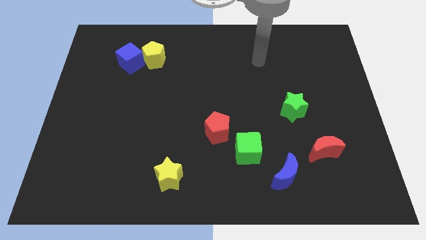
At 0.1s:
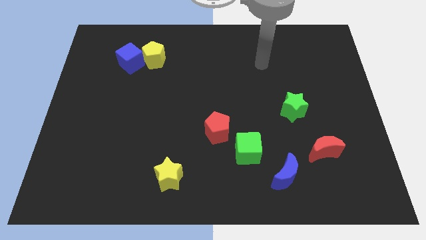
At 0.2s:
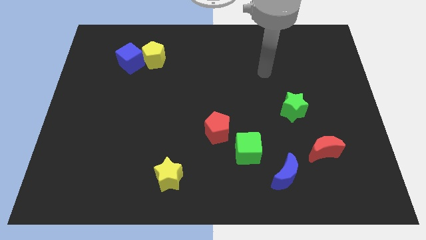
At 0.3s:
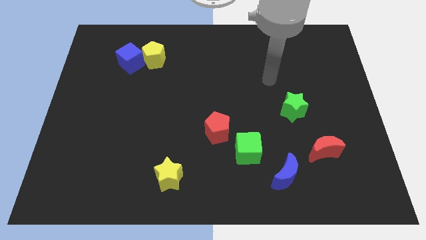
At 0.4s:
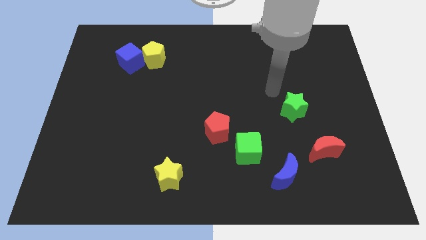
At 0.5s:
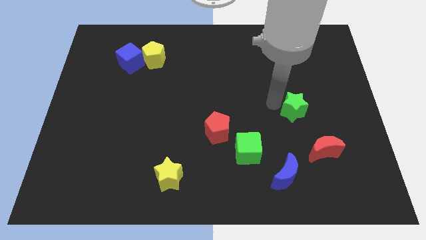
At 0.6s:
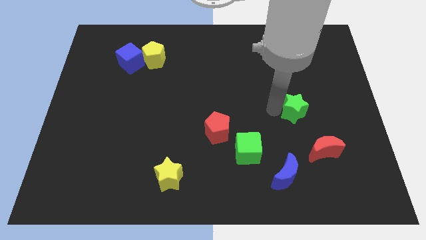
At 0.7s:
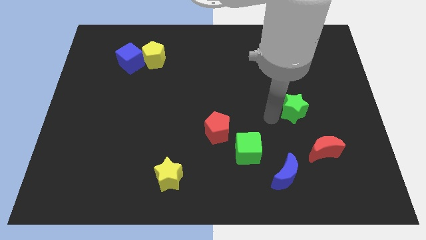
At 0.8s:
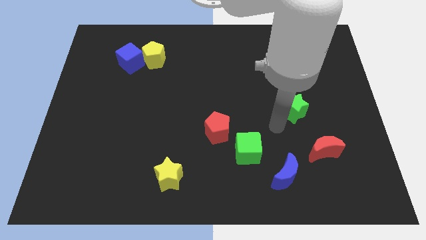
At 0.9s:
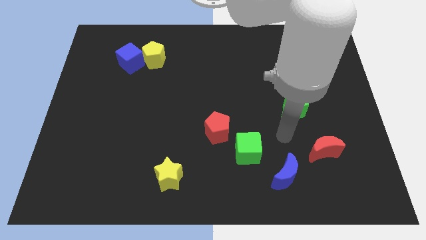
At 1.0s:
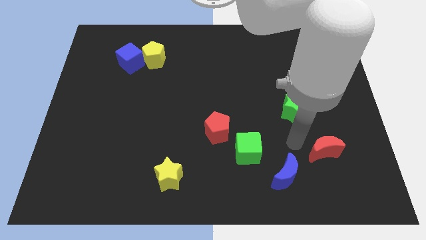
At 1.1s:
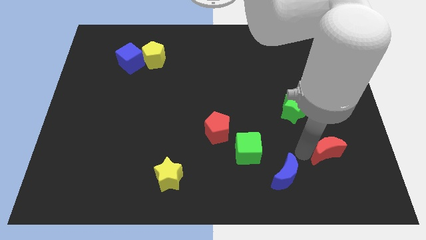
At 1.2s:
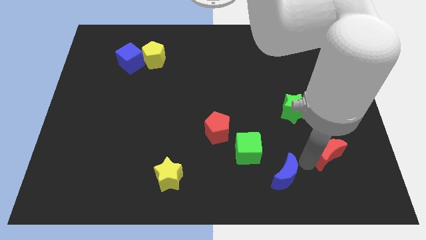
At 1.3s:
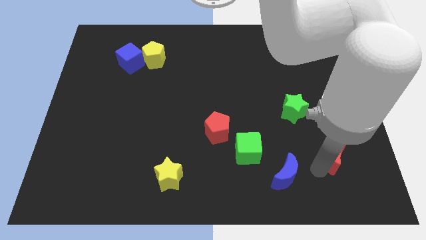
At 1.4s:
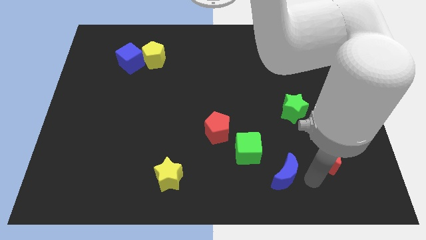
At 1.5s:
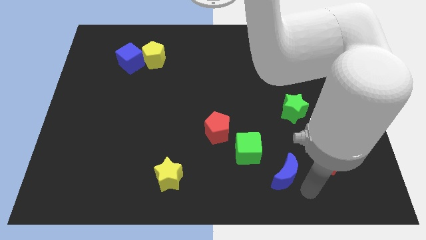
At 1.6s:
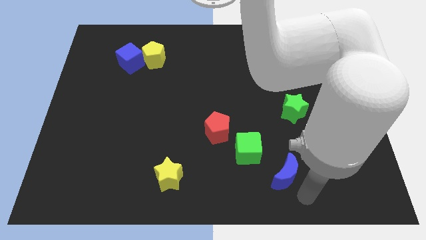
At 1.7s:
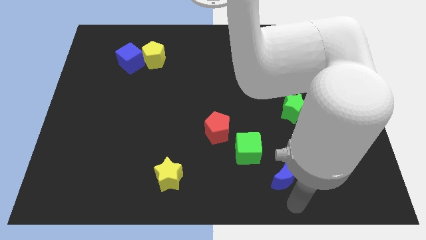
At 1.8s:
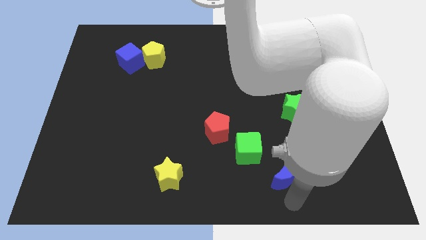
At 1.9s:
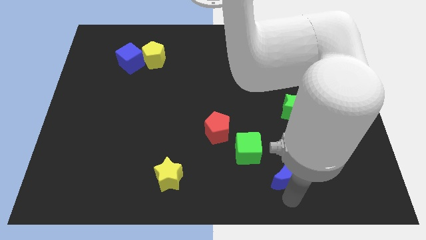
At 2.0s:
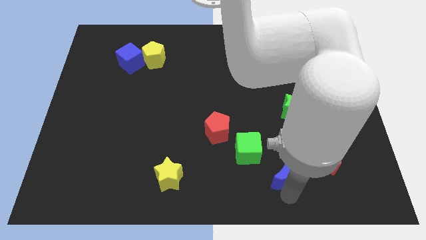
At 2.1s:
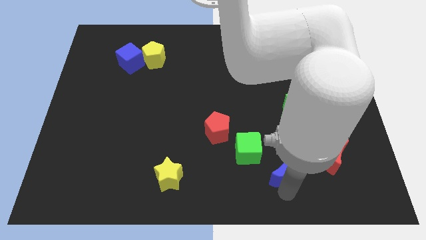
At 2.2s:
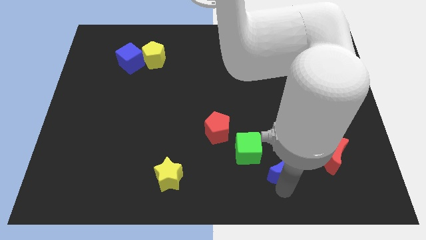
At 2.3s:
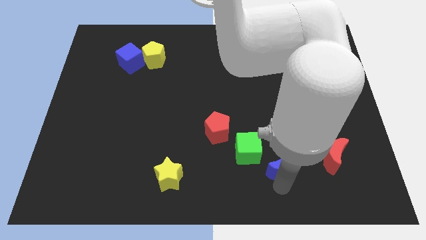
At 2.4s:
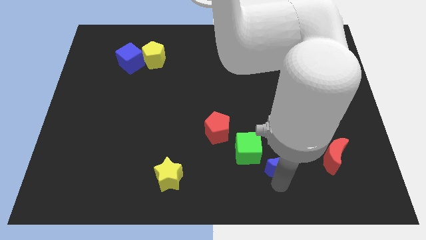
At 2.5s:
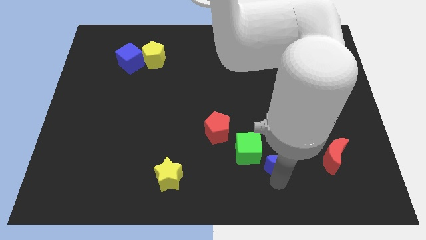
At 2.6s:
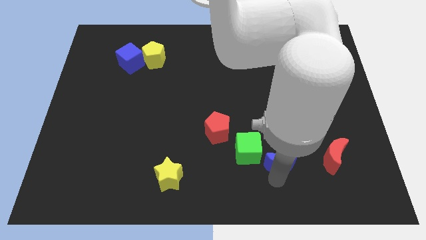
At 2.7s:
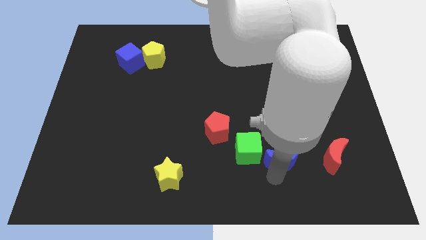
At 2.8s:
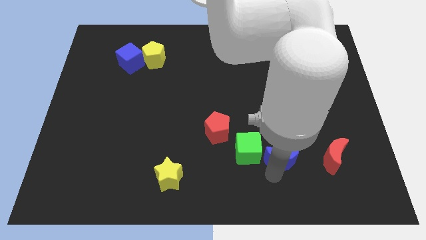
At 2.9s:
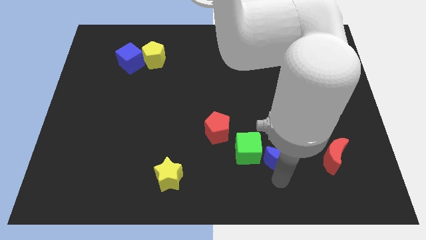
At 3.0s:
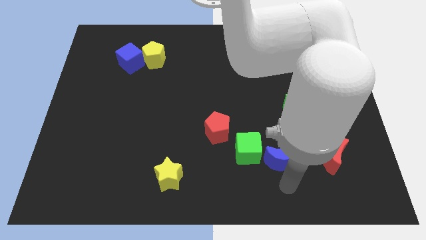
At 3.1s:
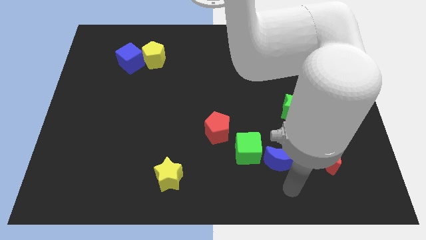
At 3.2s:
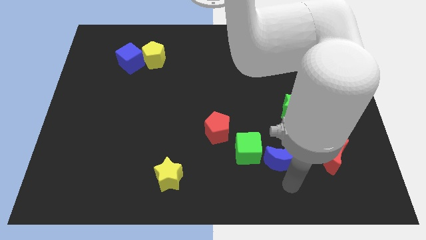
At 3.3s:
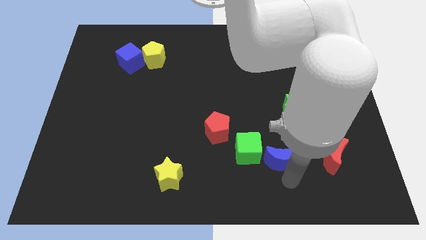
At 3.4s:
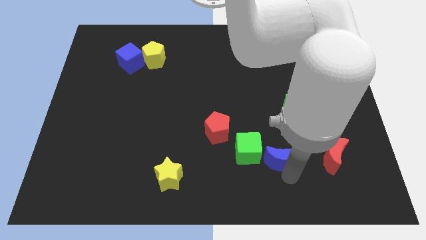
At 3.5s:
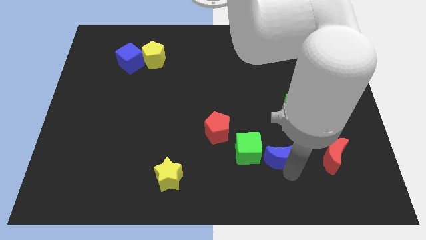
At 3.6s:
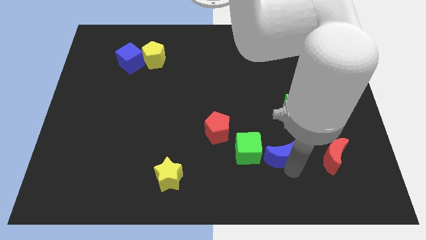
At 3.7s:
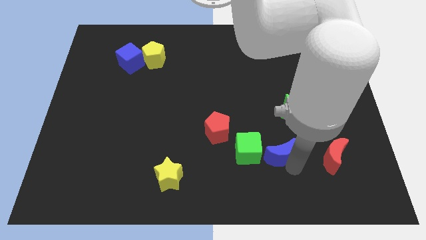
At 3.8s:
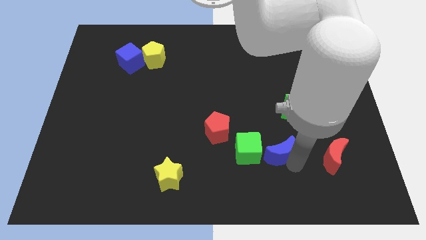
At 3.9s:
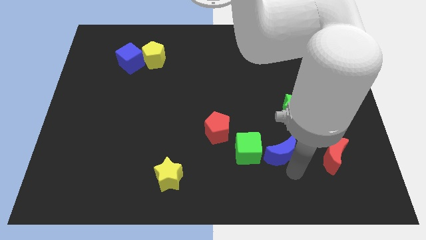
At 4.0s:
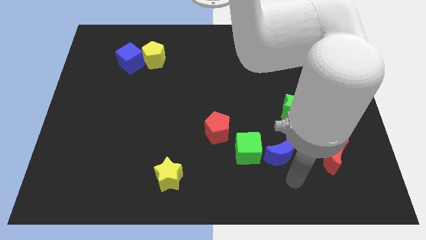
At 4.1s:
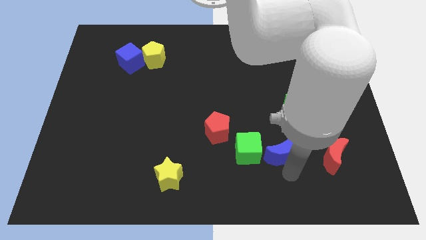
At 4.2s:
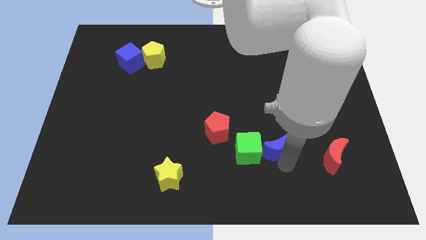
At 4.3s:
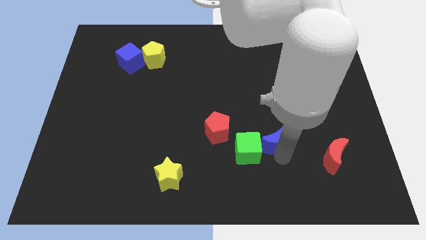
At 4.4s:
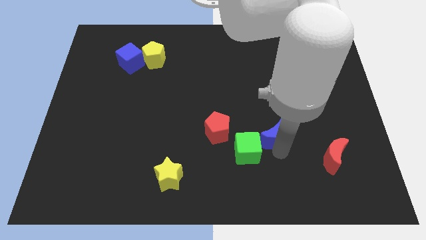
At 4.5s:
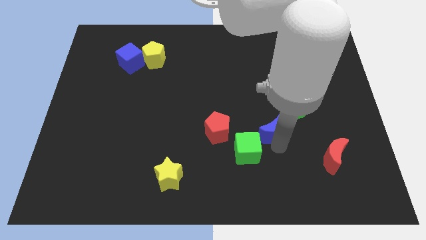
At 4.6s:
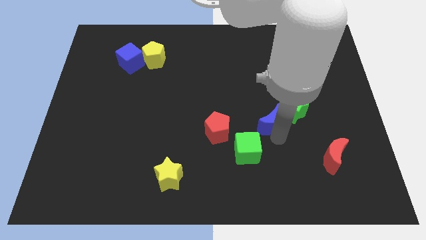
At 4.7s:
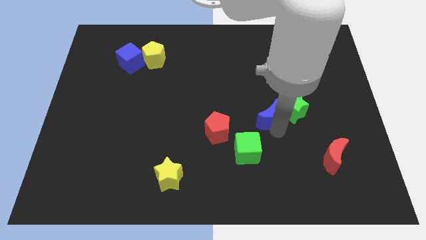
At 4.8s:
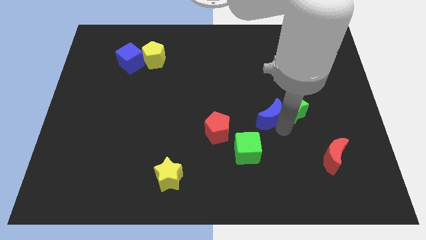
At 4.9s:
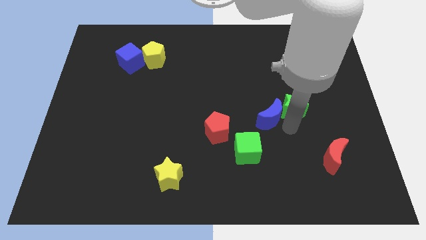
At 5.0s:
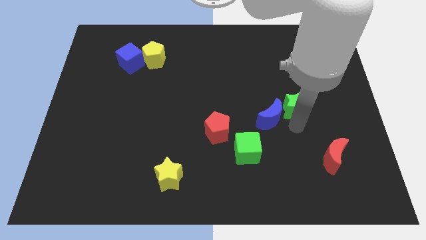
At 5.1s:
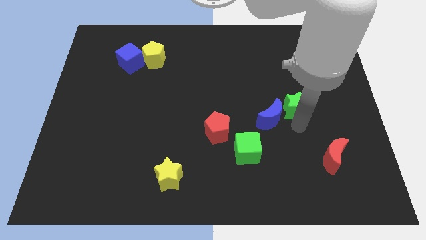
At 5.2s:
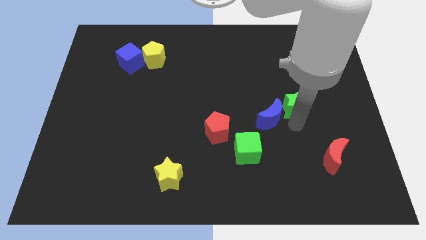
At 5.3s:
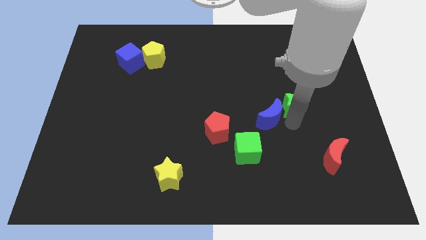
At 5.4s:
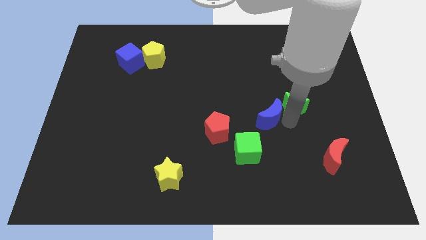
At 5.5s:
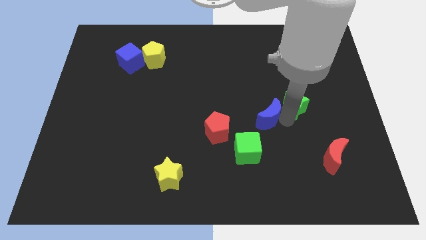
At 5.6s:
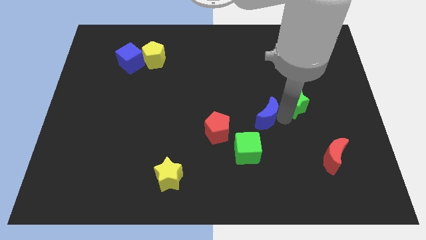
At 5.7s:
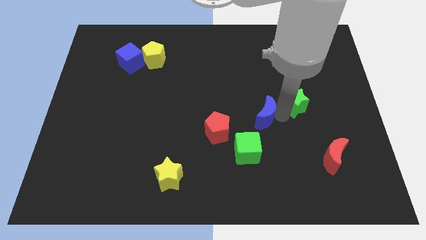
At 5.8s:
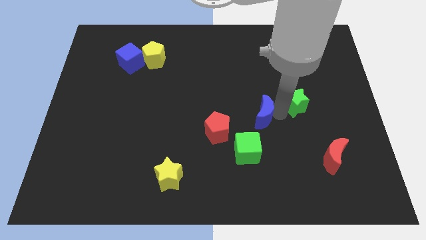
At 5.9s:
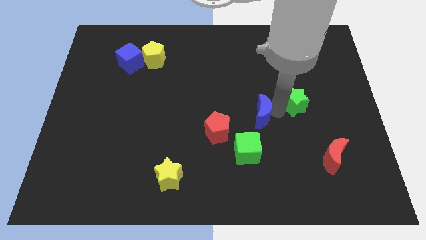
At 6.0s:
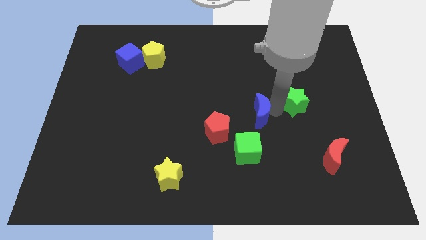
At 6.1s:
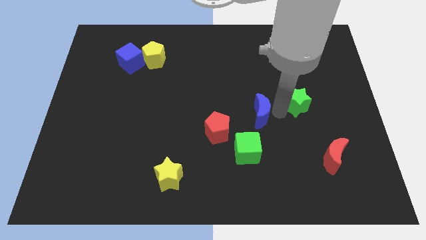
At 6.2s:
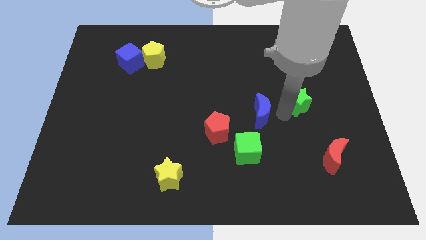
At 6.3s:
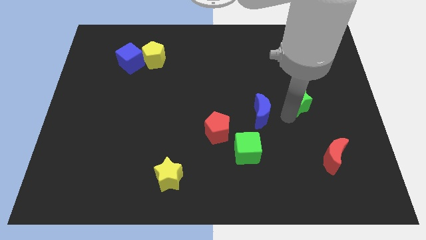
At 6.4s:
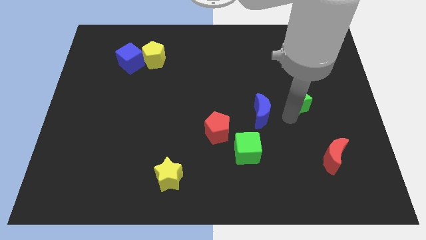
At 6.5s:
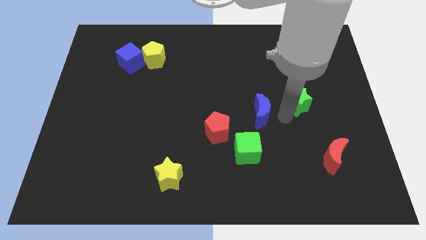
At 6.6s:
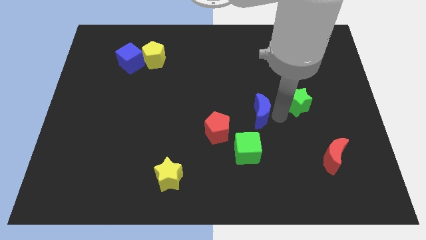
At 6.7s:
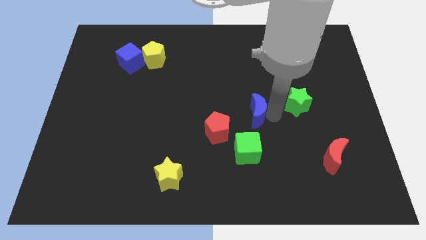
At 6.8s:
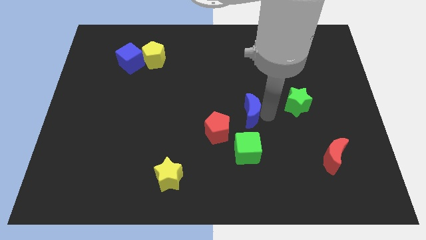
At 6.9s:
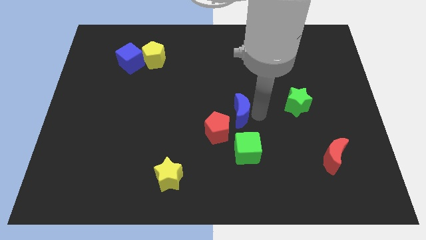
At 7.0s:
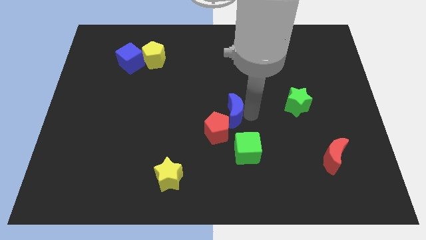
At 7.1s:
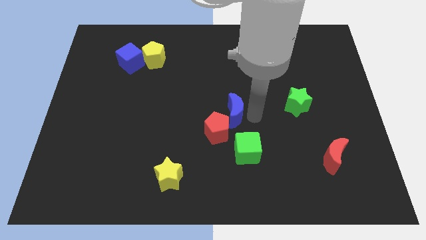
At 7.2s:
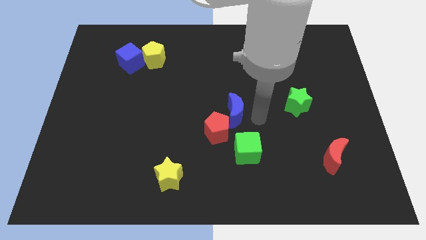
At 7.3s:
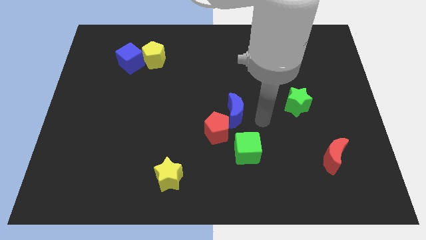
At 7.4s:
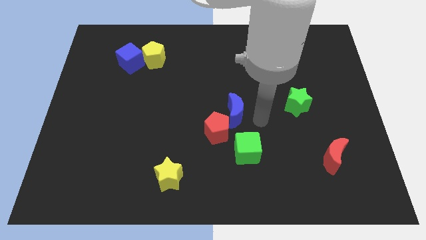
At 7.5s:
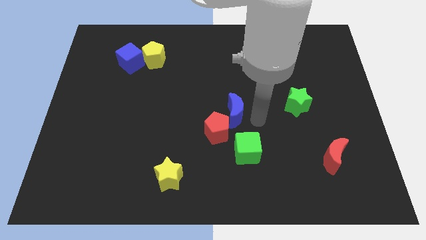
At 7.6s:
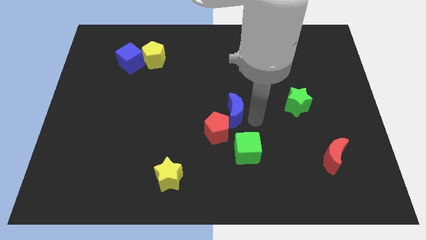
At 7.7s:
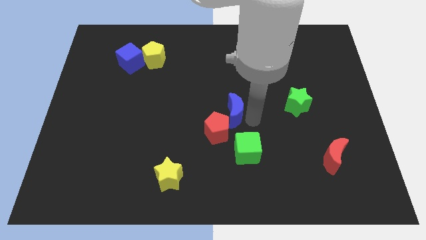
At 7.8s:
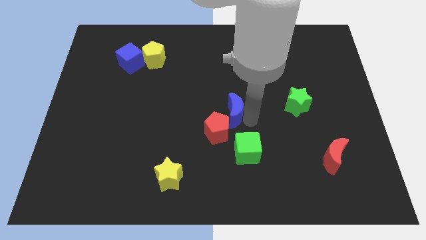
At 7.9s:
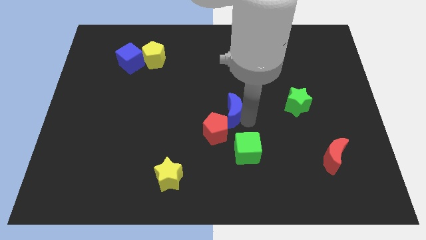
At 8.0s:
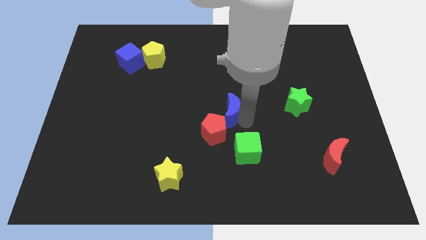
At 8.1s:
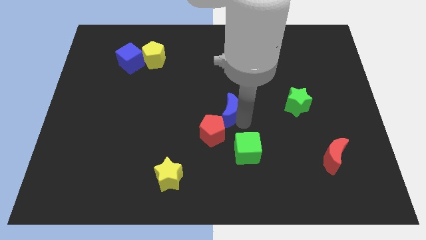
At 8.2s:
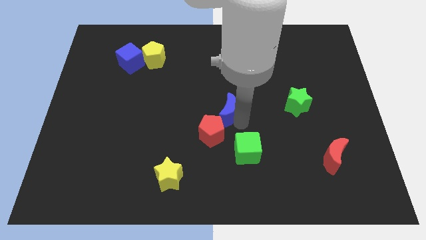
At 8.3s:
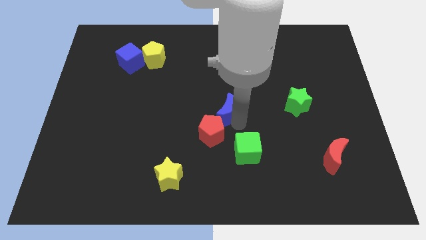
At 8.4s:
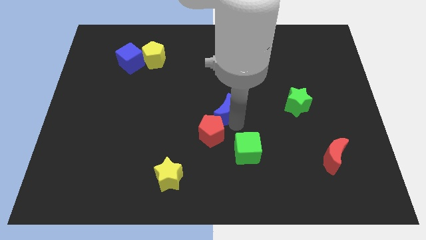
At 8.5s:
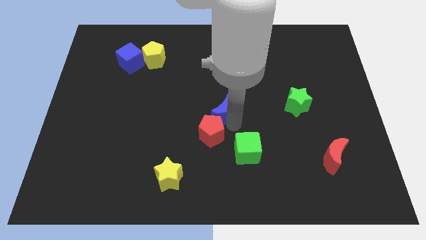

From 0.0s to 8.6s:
push the blue moon up and then left
